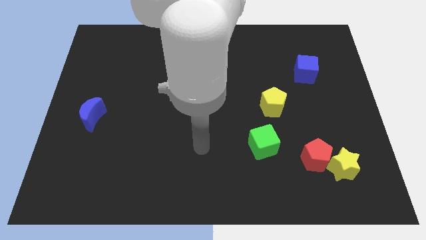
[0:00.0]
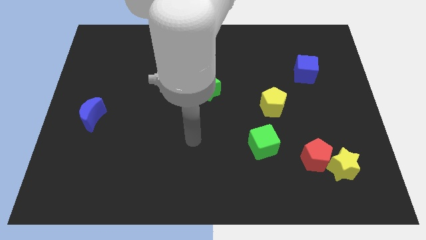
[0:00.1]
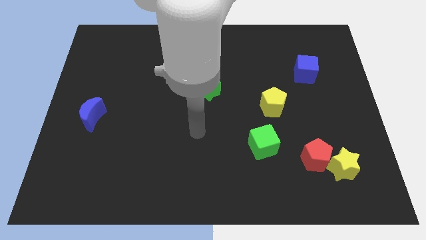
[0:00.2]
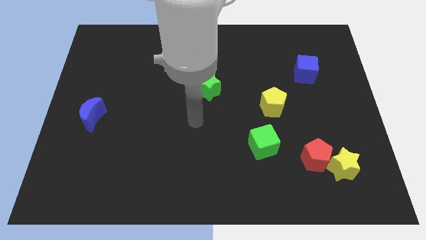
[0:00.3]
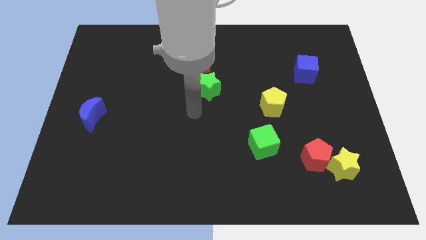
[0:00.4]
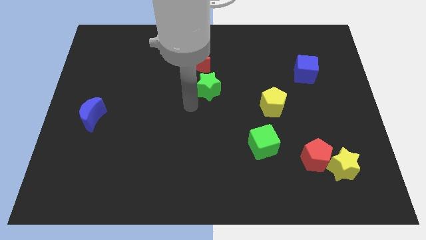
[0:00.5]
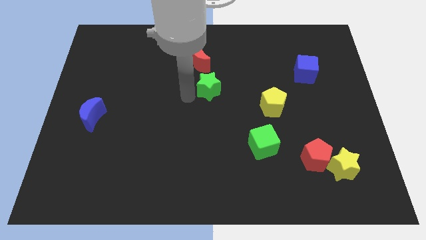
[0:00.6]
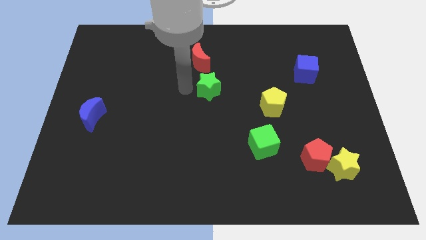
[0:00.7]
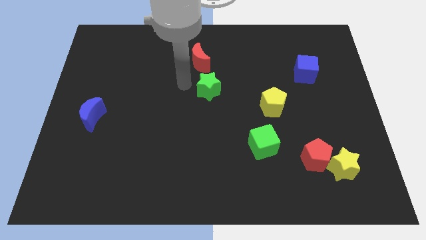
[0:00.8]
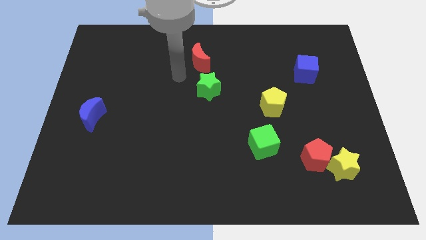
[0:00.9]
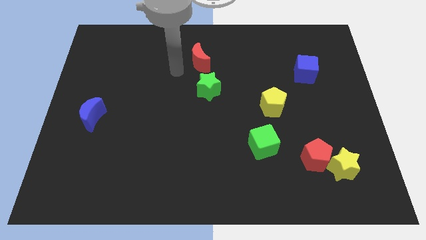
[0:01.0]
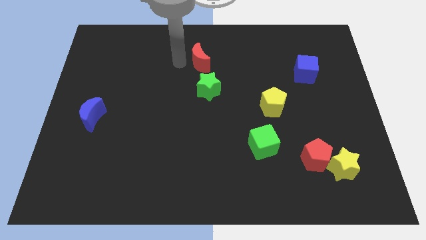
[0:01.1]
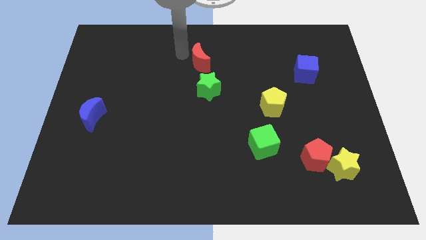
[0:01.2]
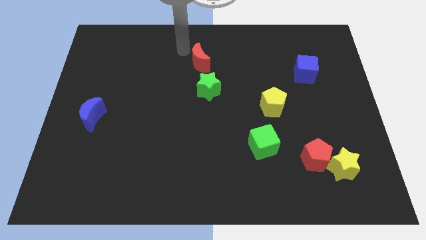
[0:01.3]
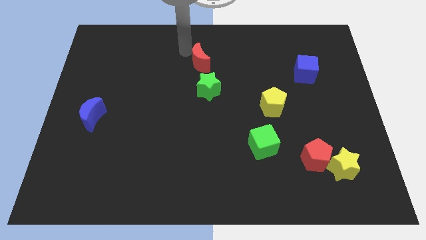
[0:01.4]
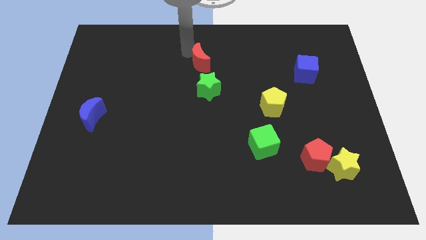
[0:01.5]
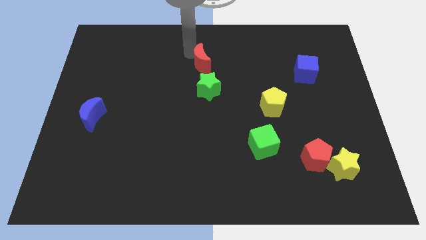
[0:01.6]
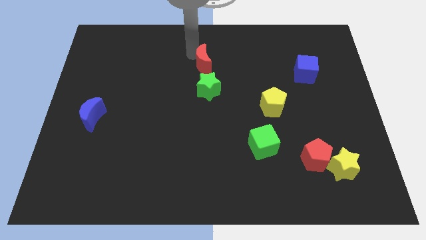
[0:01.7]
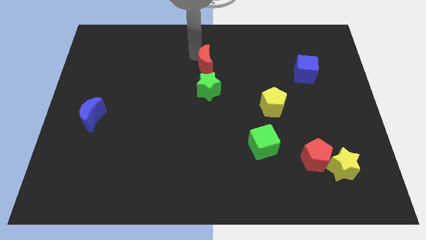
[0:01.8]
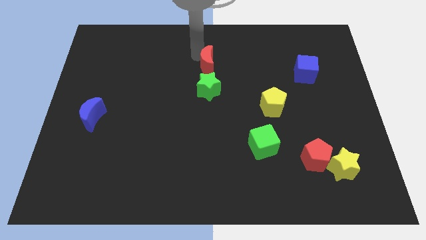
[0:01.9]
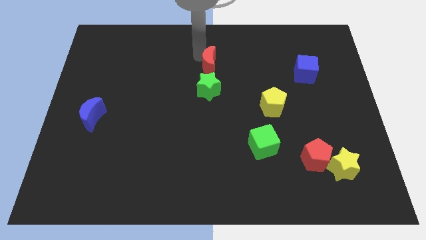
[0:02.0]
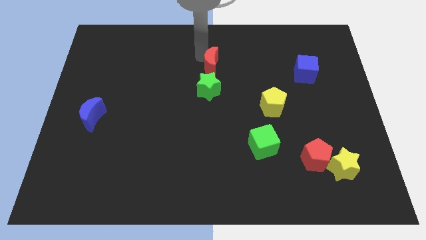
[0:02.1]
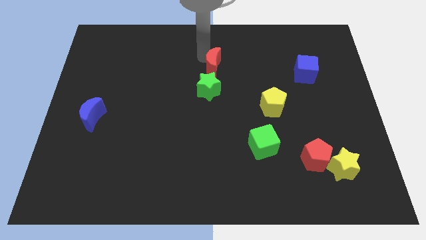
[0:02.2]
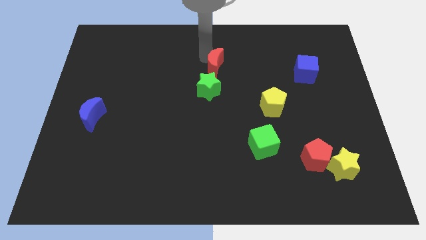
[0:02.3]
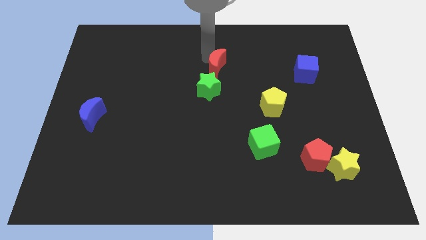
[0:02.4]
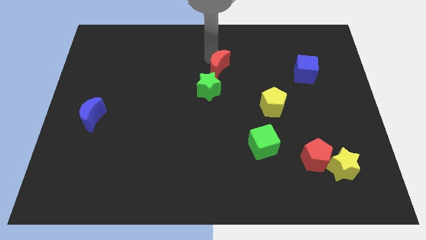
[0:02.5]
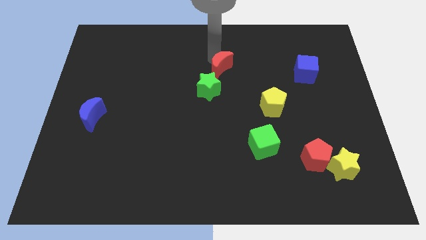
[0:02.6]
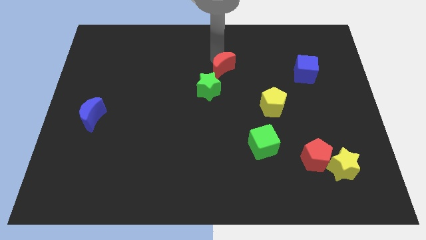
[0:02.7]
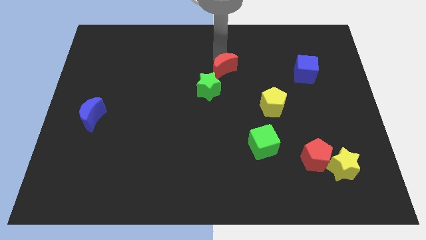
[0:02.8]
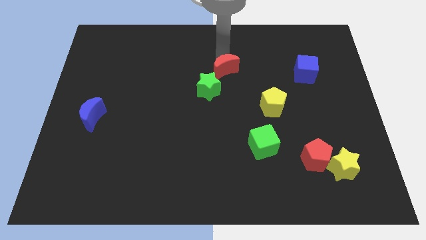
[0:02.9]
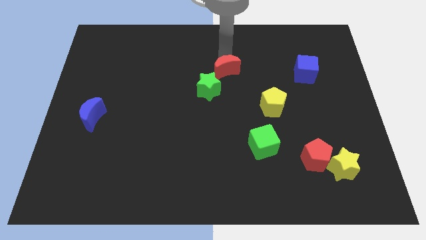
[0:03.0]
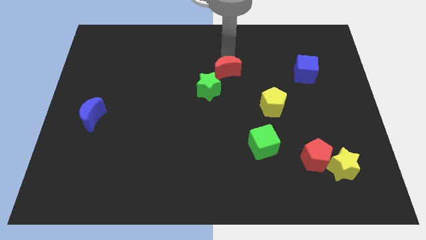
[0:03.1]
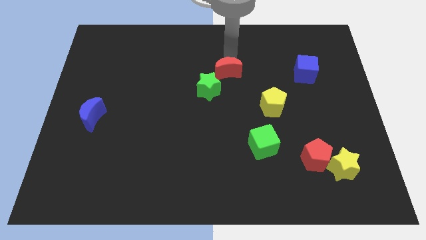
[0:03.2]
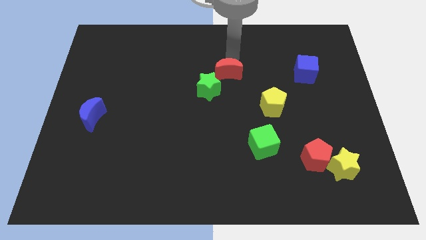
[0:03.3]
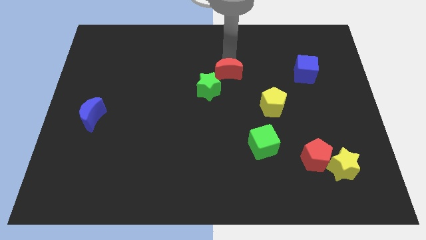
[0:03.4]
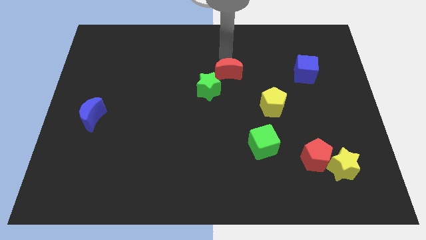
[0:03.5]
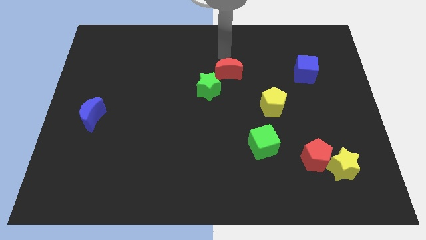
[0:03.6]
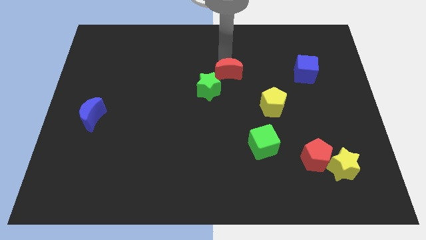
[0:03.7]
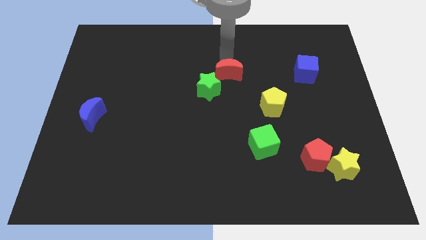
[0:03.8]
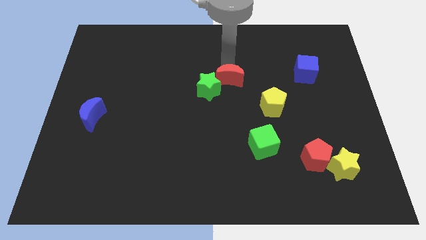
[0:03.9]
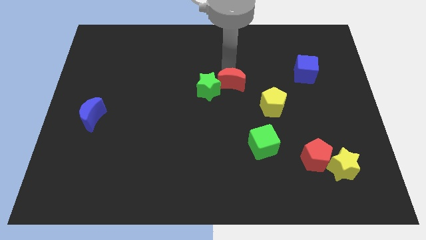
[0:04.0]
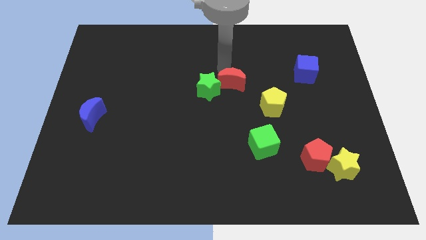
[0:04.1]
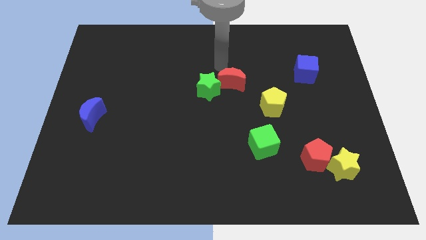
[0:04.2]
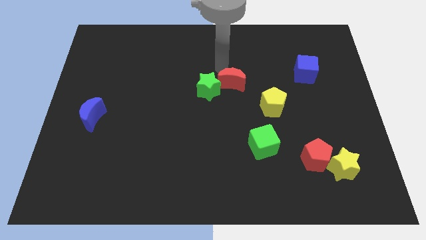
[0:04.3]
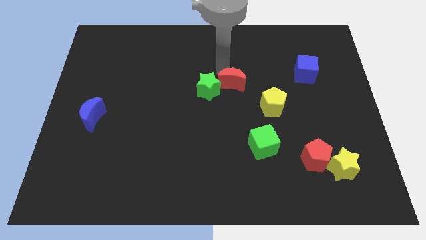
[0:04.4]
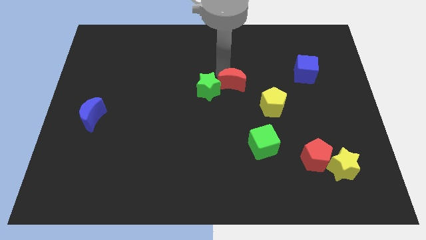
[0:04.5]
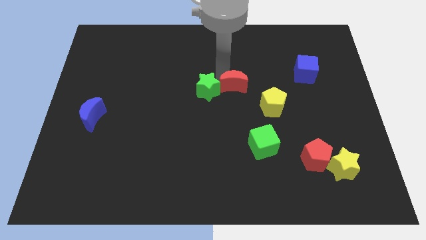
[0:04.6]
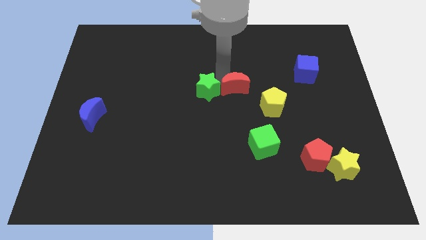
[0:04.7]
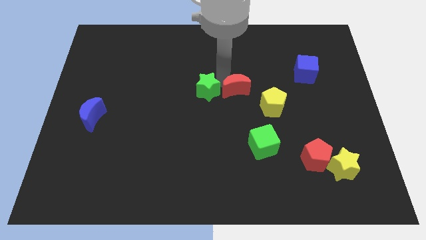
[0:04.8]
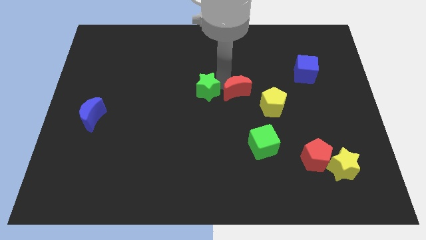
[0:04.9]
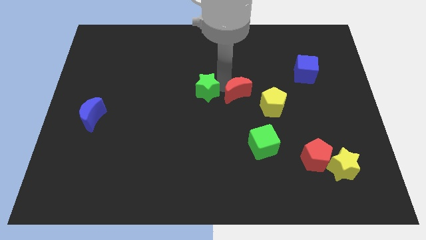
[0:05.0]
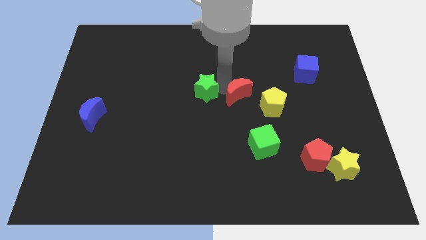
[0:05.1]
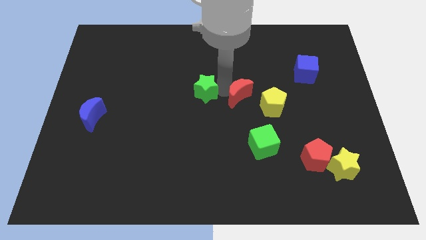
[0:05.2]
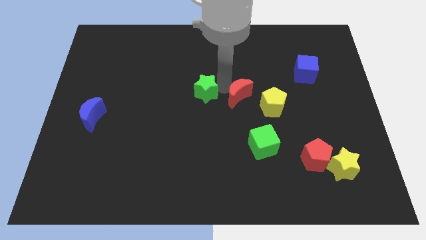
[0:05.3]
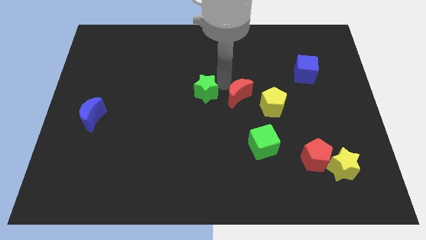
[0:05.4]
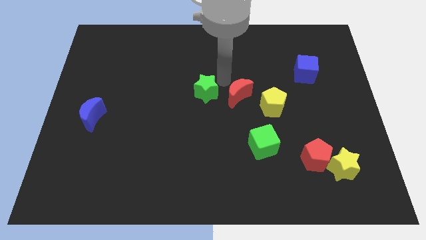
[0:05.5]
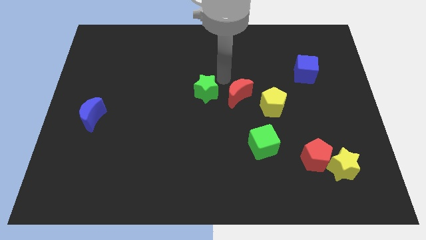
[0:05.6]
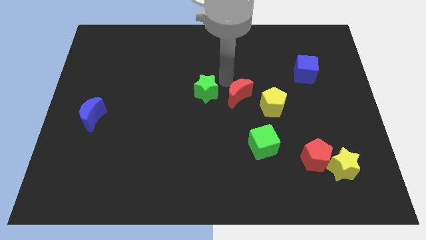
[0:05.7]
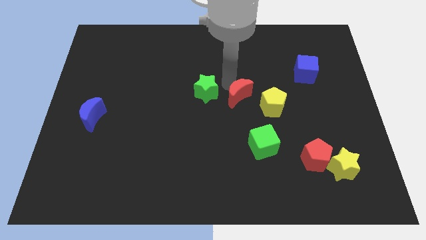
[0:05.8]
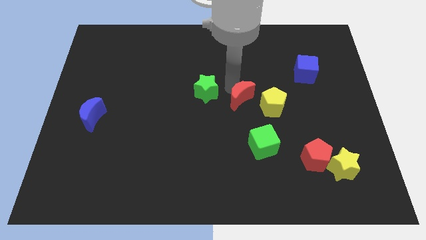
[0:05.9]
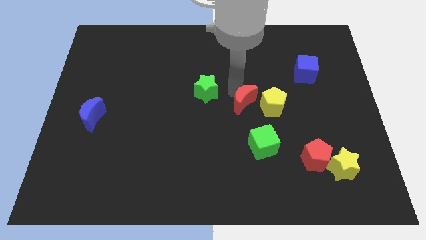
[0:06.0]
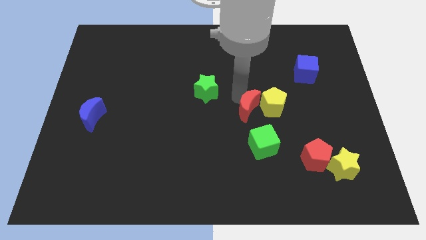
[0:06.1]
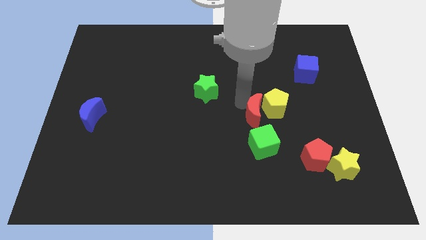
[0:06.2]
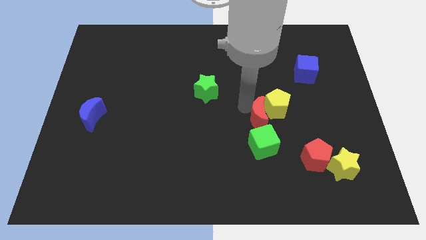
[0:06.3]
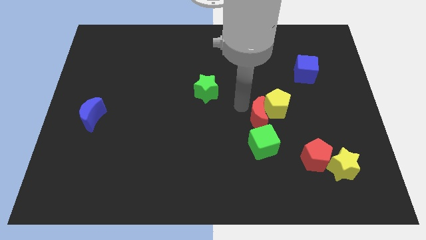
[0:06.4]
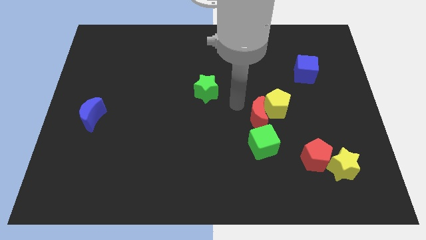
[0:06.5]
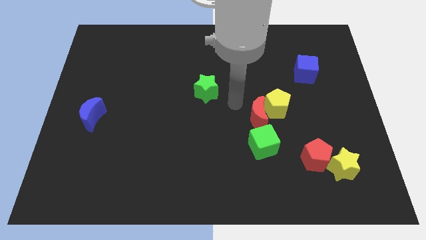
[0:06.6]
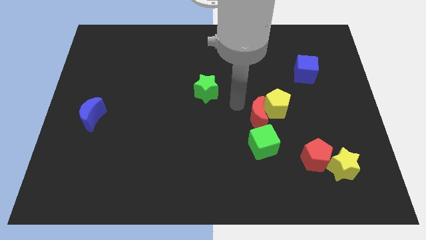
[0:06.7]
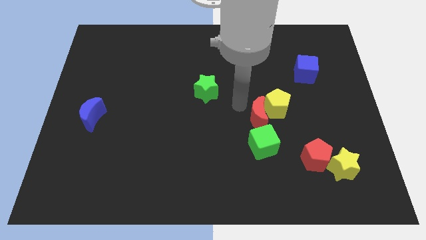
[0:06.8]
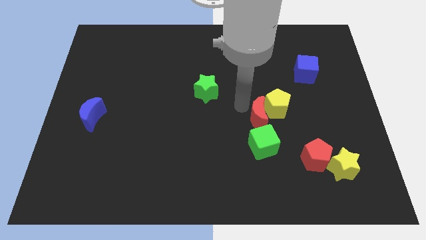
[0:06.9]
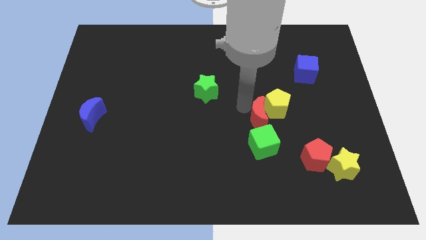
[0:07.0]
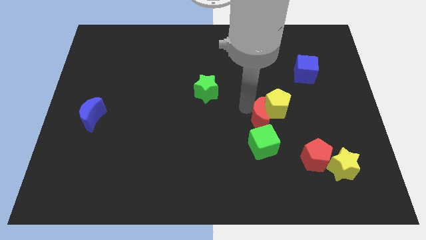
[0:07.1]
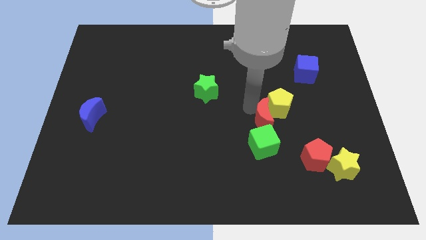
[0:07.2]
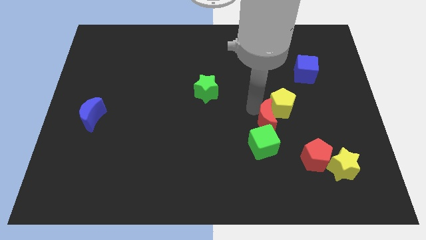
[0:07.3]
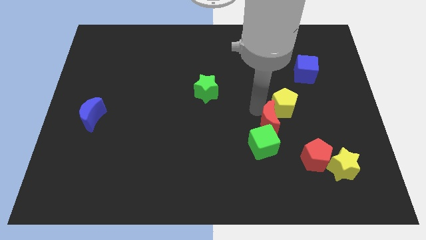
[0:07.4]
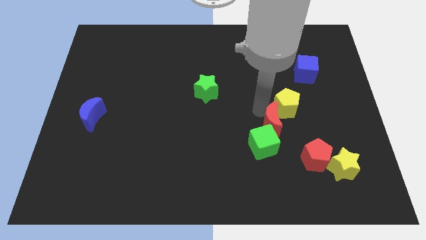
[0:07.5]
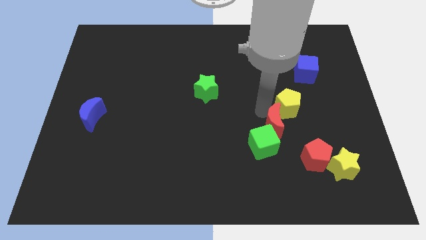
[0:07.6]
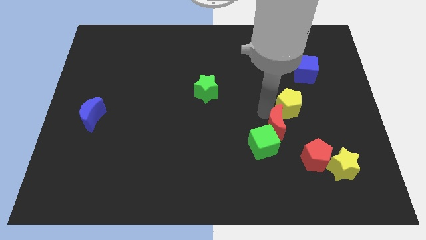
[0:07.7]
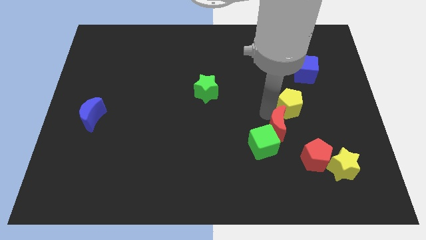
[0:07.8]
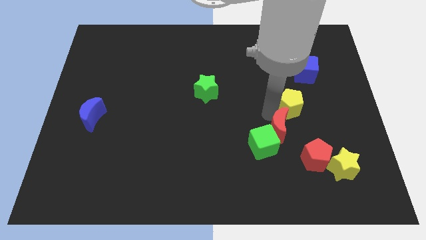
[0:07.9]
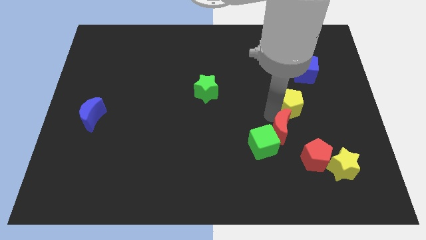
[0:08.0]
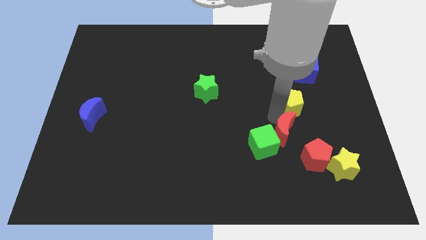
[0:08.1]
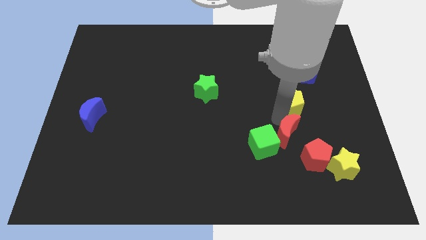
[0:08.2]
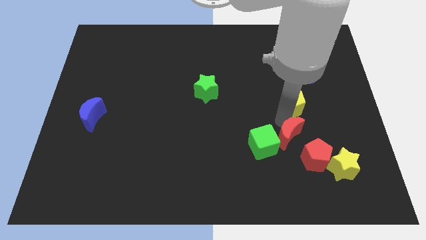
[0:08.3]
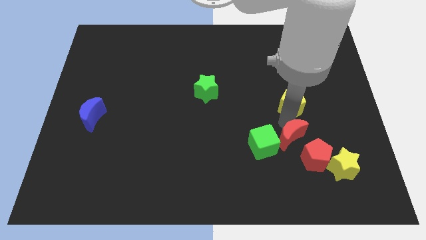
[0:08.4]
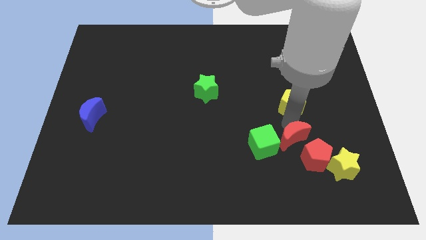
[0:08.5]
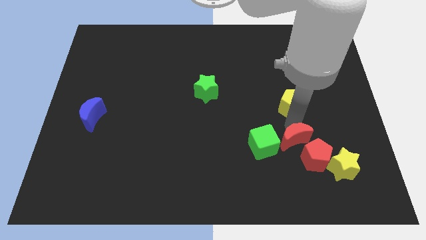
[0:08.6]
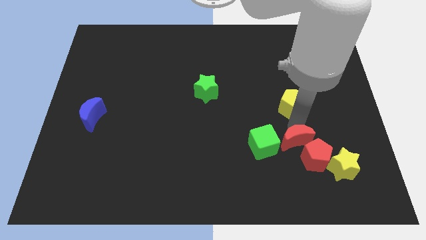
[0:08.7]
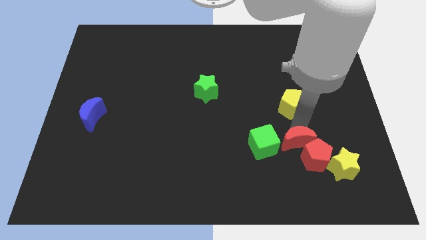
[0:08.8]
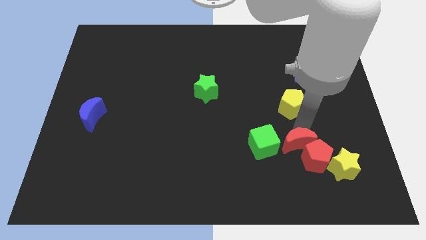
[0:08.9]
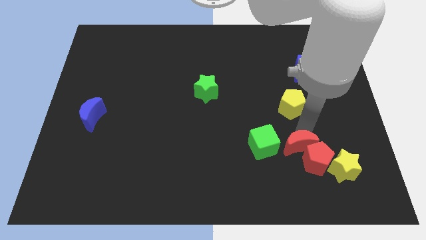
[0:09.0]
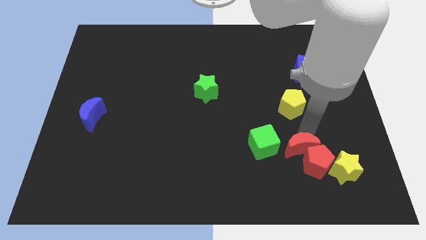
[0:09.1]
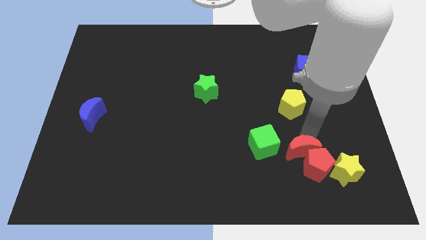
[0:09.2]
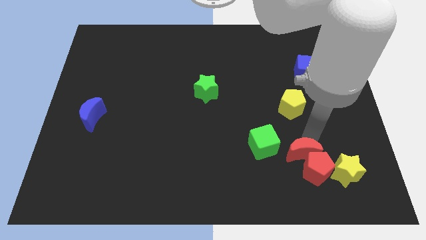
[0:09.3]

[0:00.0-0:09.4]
put the red moon to the left side of the yellow star
